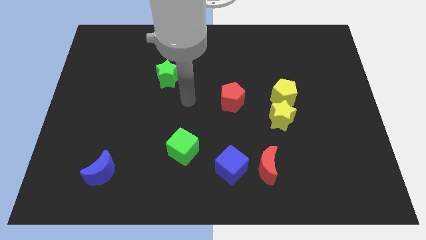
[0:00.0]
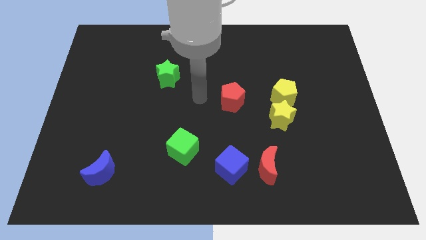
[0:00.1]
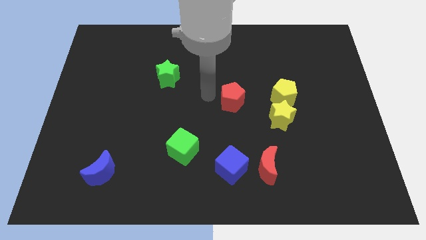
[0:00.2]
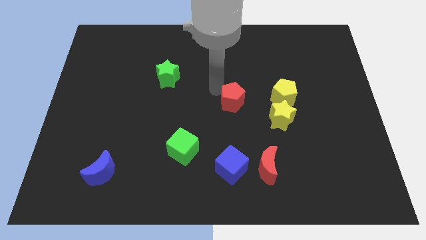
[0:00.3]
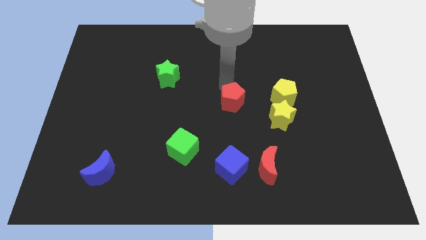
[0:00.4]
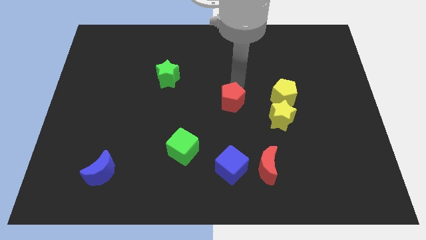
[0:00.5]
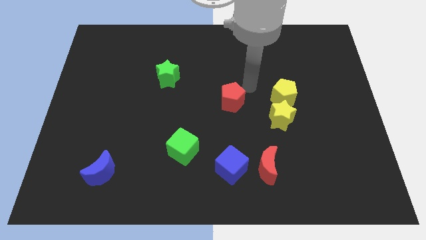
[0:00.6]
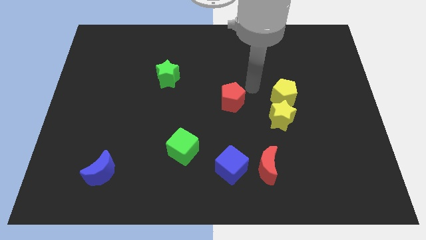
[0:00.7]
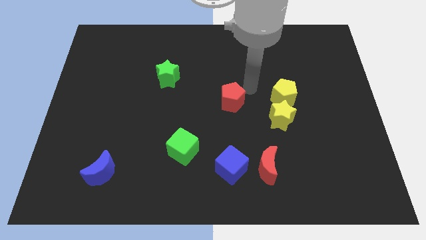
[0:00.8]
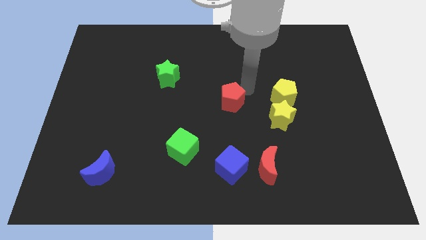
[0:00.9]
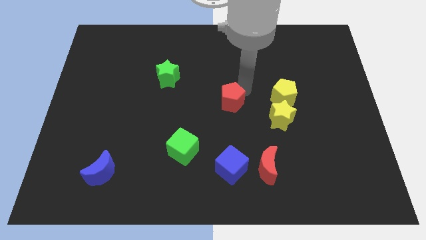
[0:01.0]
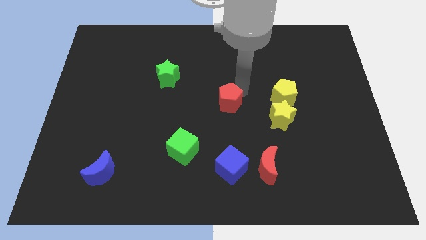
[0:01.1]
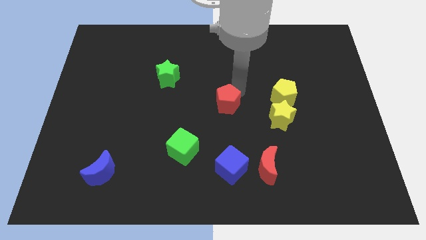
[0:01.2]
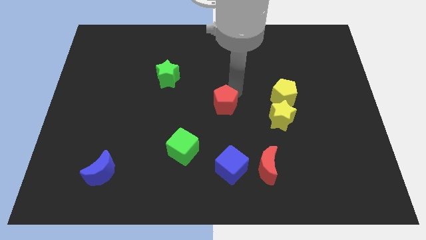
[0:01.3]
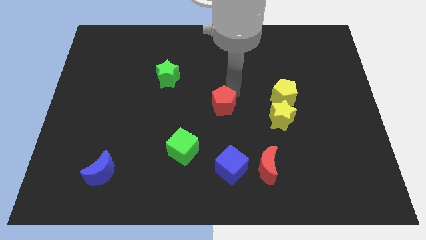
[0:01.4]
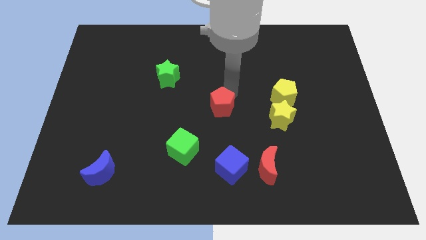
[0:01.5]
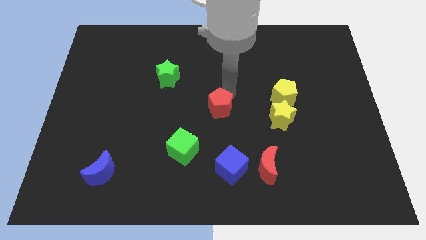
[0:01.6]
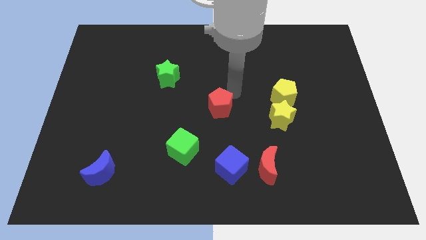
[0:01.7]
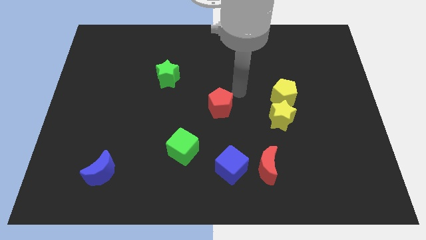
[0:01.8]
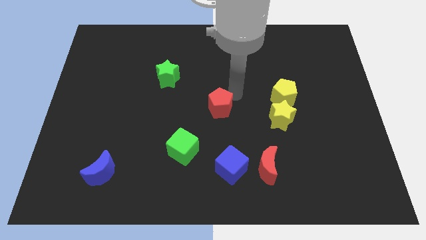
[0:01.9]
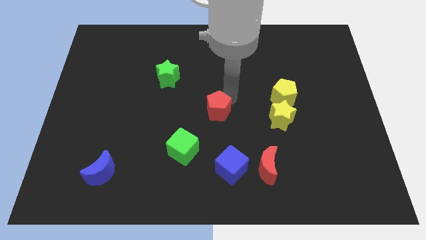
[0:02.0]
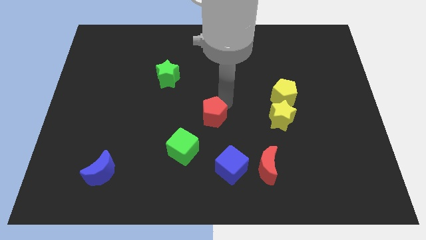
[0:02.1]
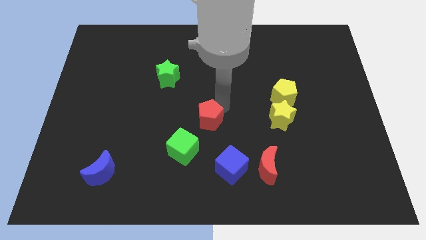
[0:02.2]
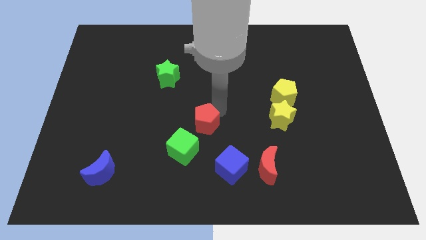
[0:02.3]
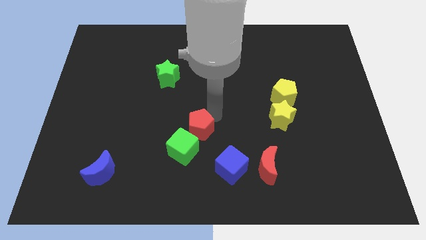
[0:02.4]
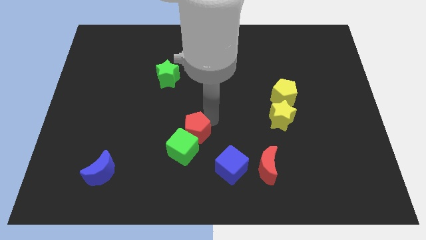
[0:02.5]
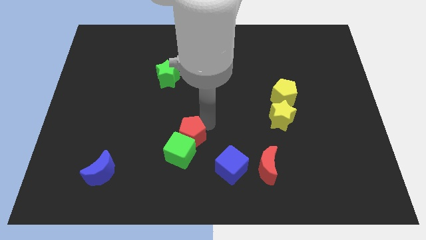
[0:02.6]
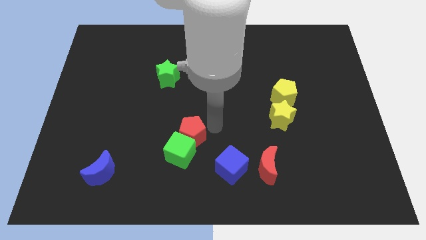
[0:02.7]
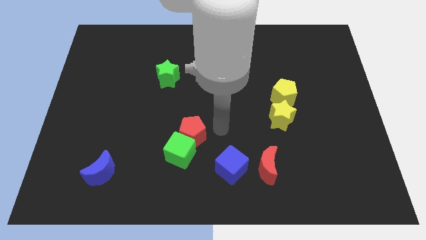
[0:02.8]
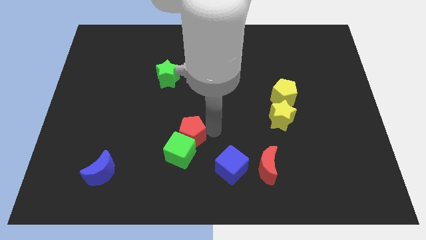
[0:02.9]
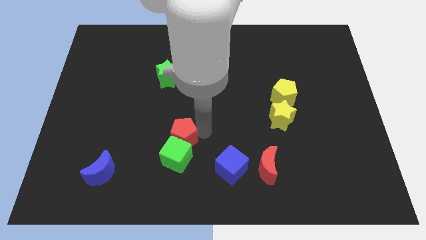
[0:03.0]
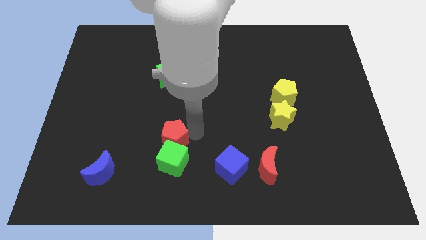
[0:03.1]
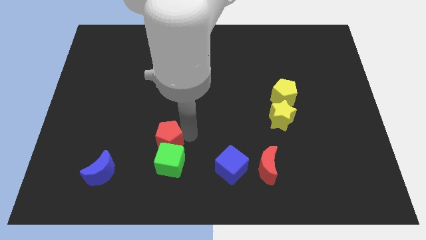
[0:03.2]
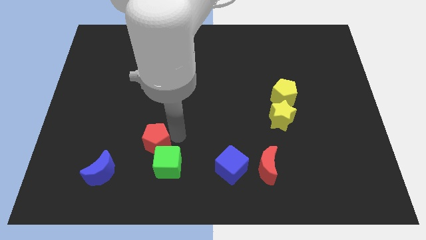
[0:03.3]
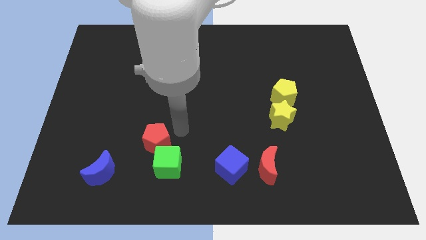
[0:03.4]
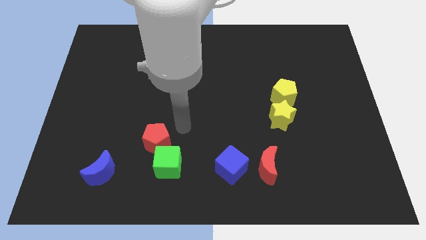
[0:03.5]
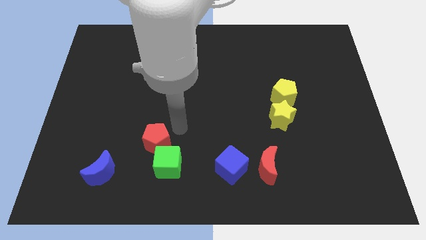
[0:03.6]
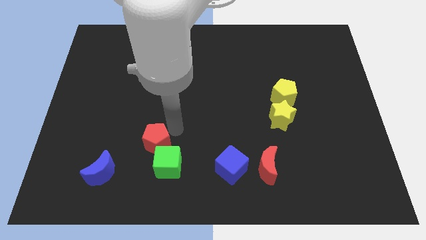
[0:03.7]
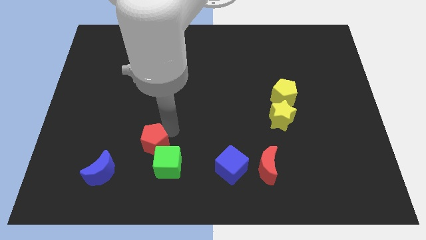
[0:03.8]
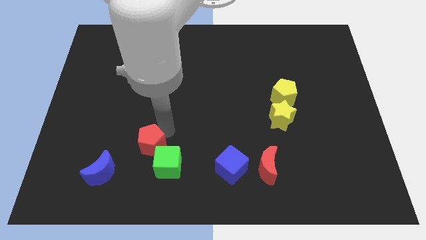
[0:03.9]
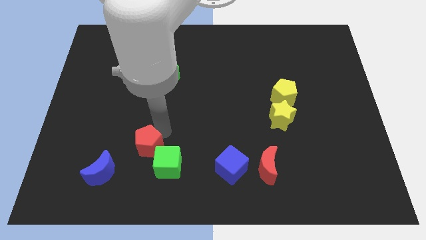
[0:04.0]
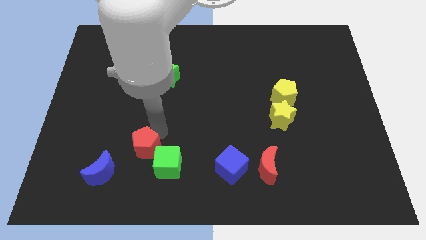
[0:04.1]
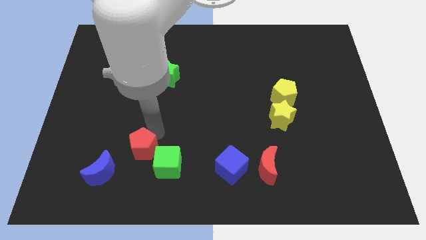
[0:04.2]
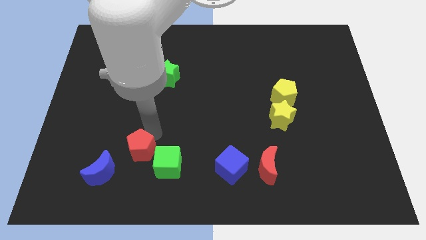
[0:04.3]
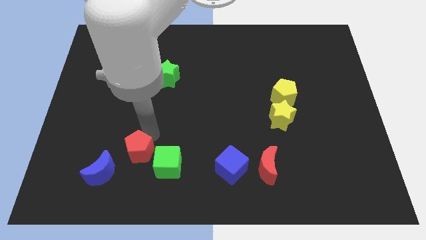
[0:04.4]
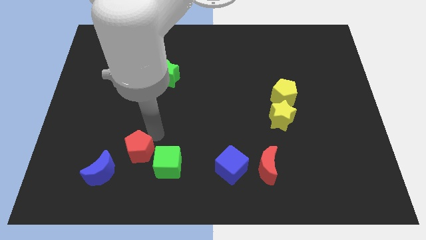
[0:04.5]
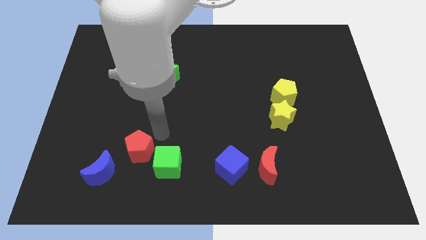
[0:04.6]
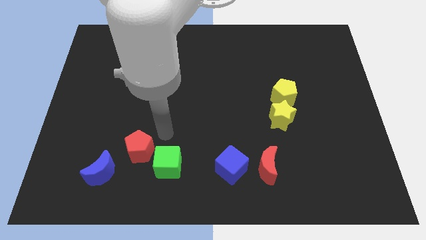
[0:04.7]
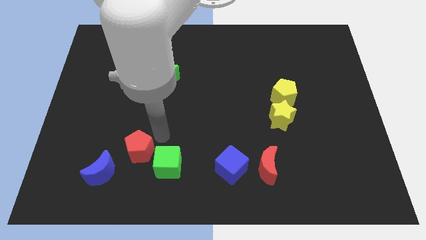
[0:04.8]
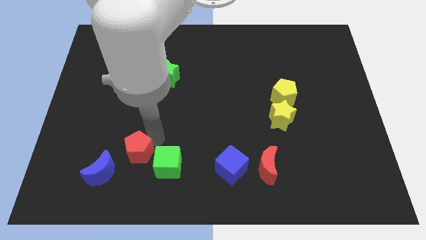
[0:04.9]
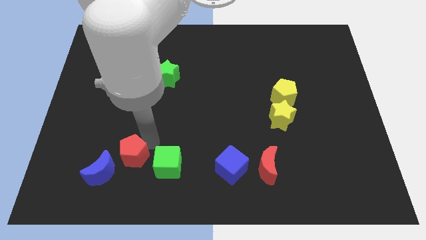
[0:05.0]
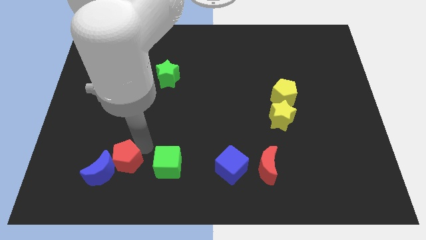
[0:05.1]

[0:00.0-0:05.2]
put the red pentagon next to the blue moon

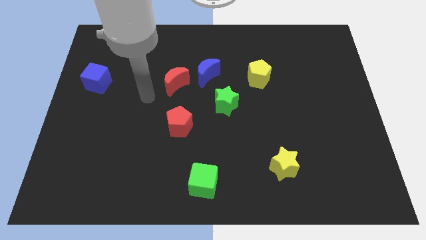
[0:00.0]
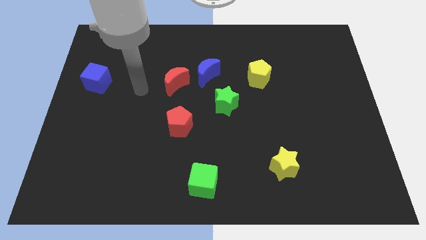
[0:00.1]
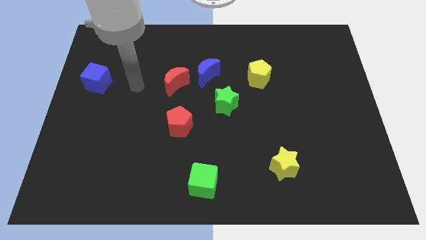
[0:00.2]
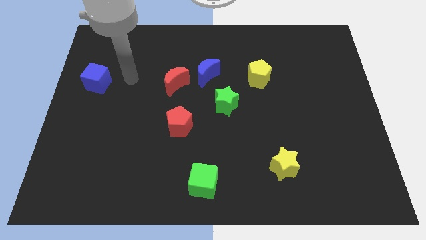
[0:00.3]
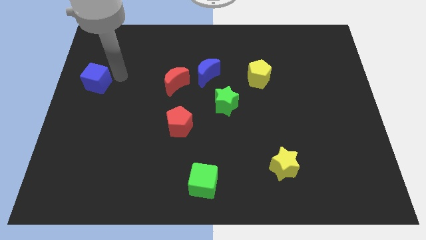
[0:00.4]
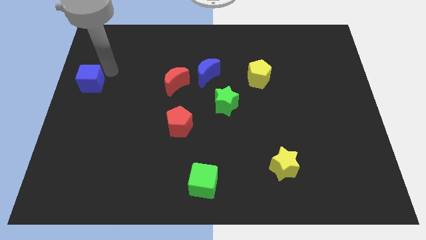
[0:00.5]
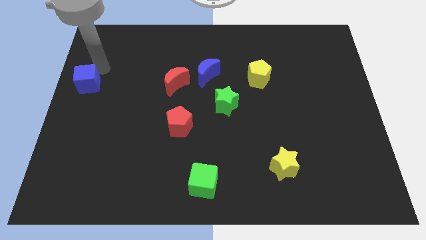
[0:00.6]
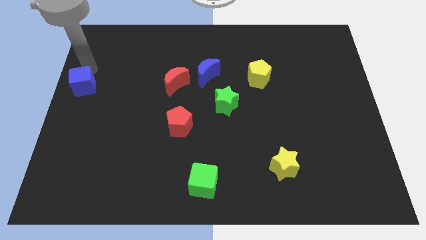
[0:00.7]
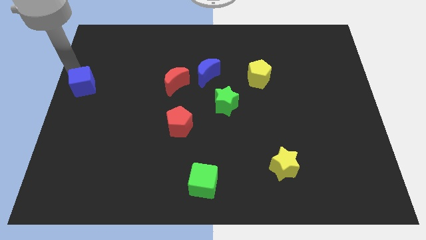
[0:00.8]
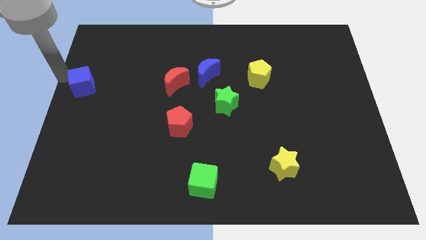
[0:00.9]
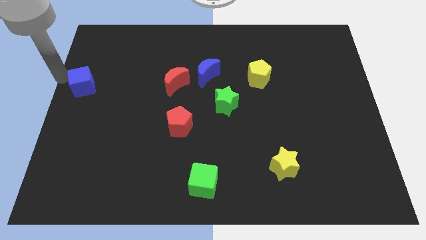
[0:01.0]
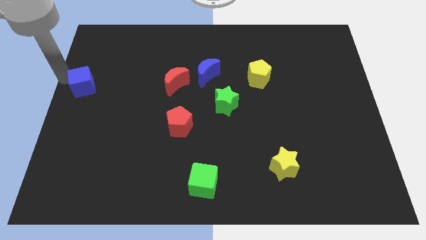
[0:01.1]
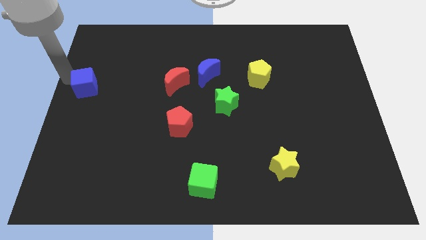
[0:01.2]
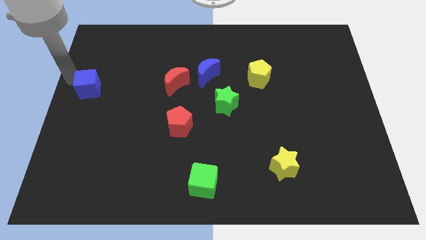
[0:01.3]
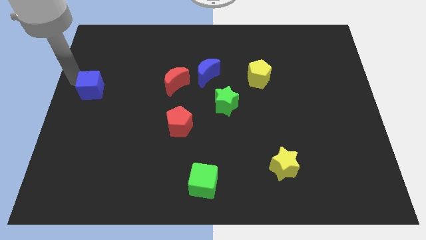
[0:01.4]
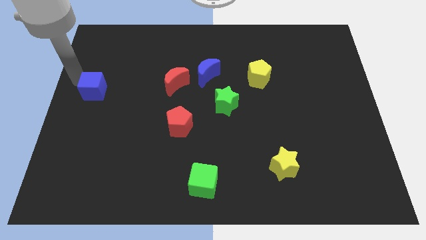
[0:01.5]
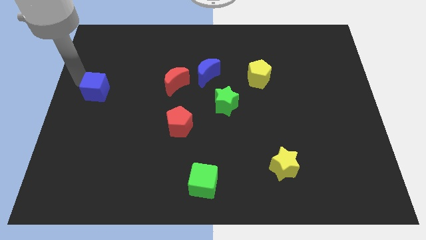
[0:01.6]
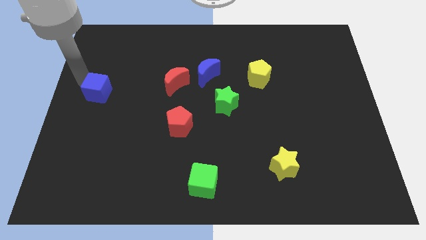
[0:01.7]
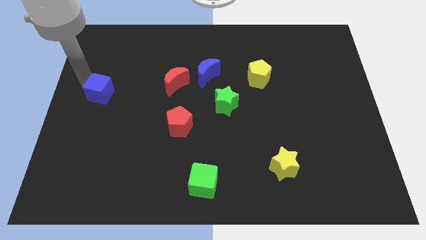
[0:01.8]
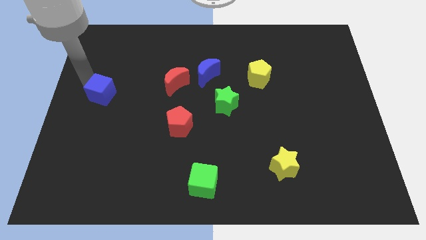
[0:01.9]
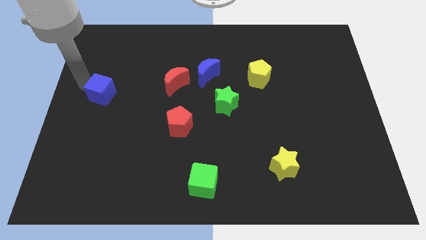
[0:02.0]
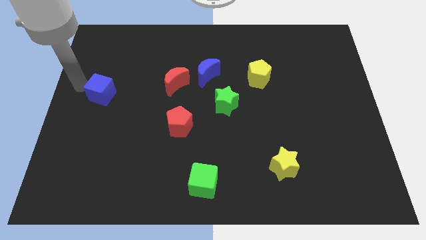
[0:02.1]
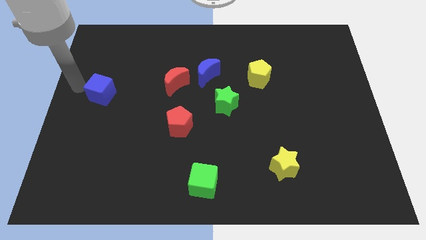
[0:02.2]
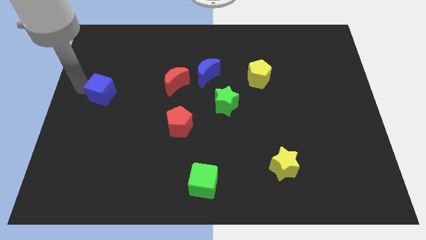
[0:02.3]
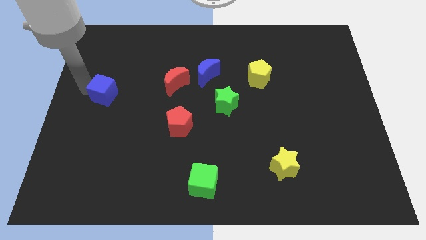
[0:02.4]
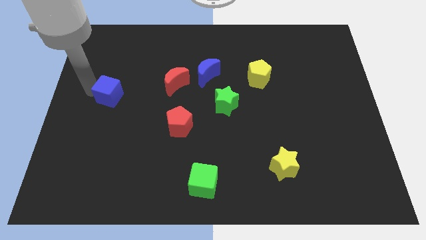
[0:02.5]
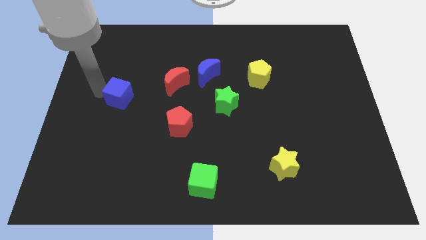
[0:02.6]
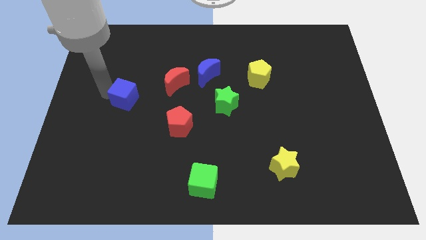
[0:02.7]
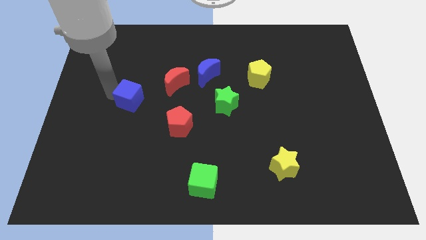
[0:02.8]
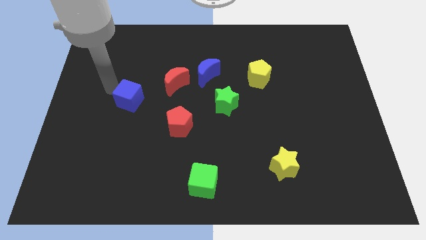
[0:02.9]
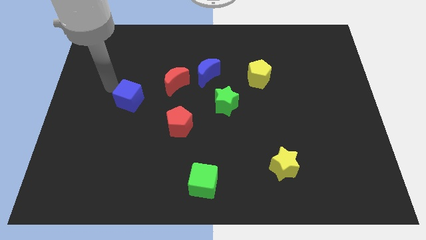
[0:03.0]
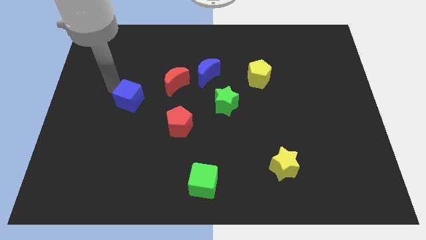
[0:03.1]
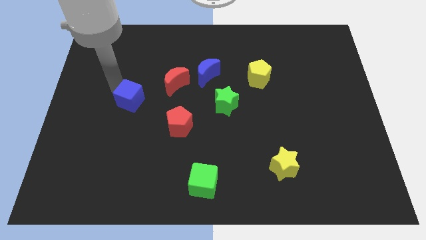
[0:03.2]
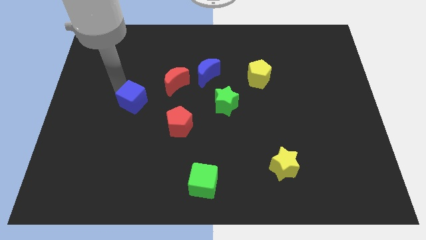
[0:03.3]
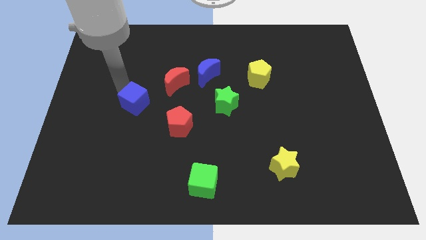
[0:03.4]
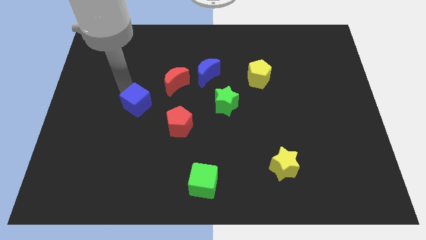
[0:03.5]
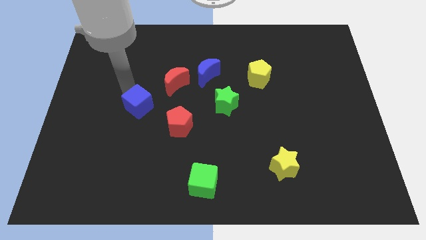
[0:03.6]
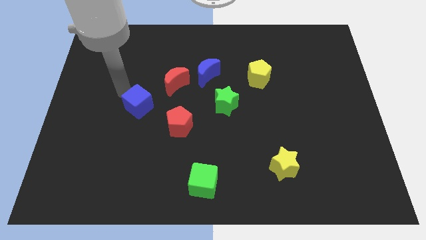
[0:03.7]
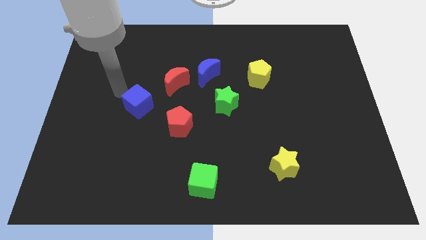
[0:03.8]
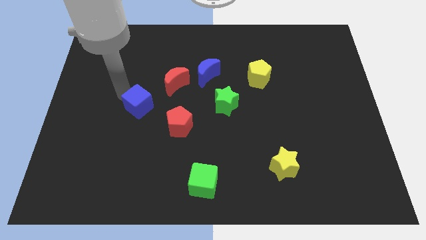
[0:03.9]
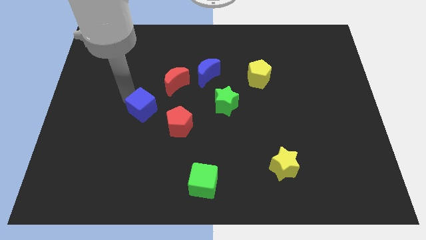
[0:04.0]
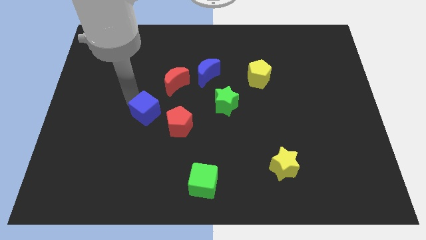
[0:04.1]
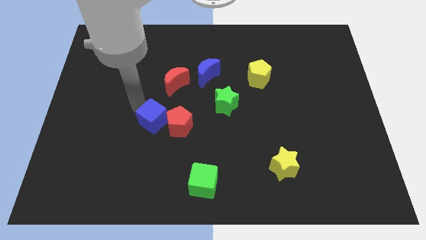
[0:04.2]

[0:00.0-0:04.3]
push the blue cube towards the red pentagon
